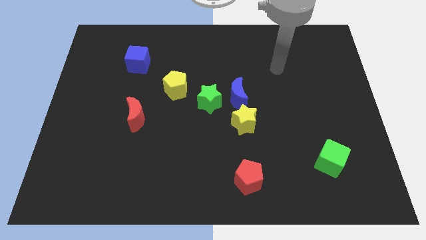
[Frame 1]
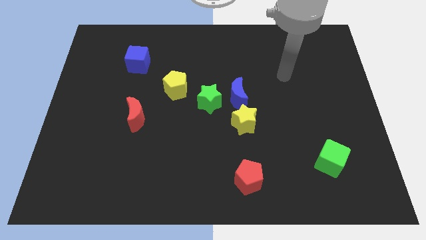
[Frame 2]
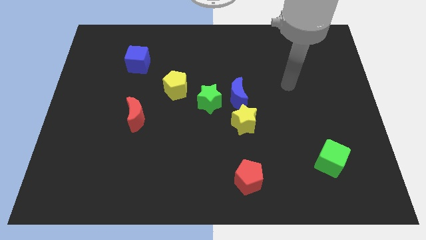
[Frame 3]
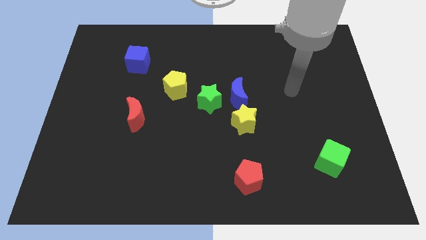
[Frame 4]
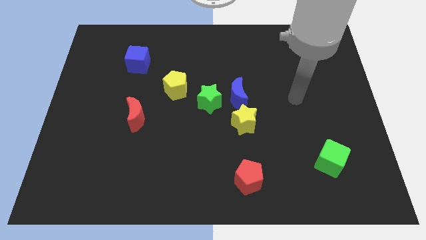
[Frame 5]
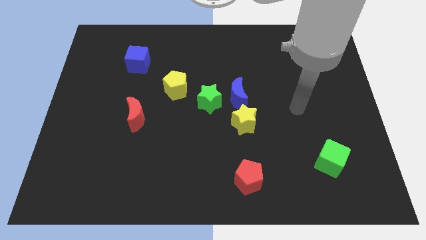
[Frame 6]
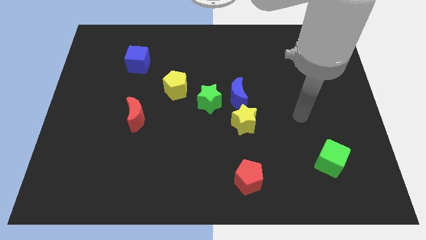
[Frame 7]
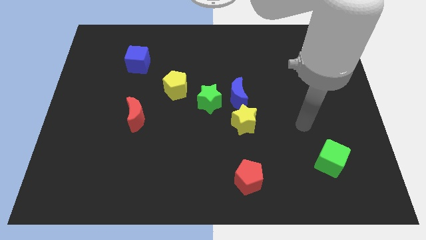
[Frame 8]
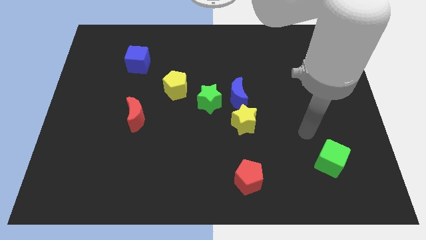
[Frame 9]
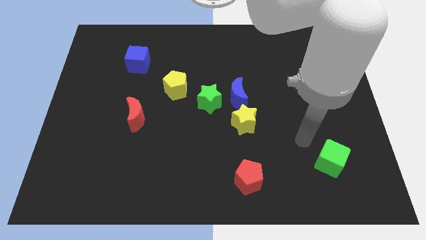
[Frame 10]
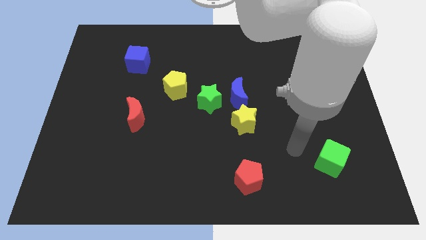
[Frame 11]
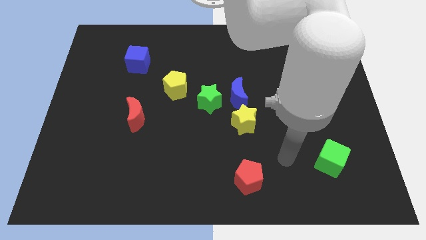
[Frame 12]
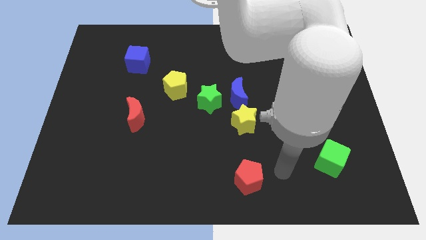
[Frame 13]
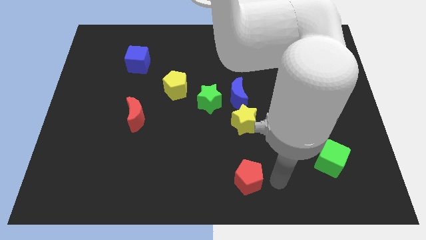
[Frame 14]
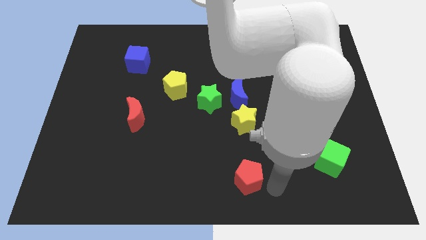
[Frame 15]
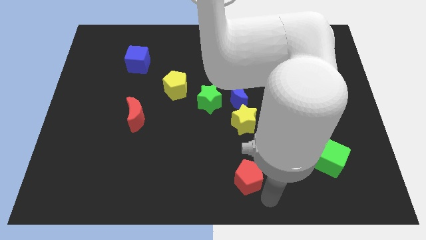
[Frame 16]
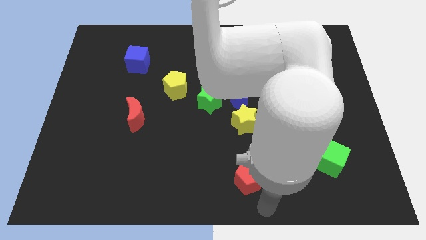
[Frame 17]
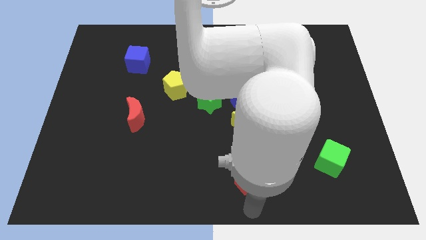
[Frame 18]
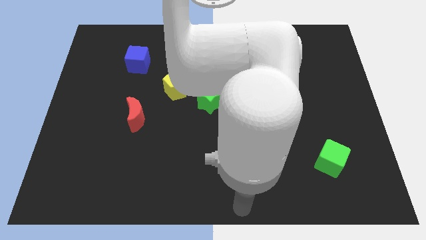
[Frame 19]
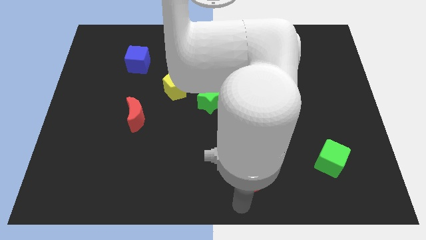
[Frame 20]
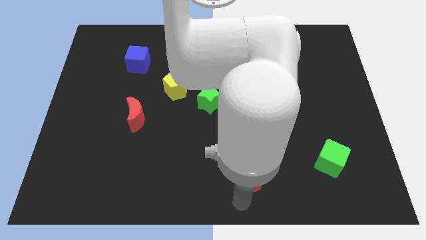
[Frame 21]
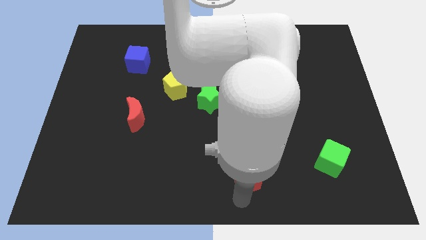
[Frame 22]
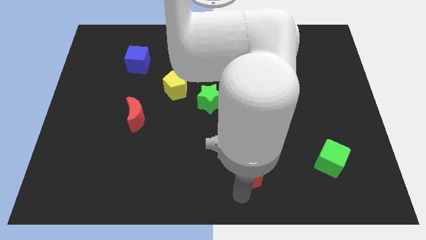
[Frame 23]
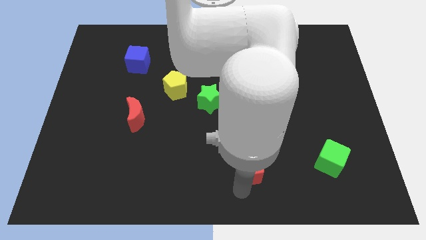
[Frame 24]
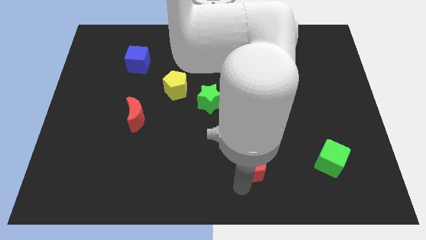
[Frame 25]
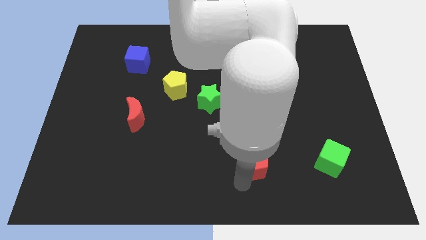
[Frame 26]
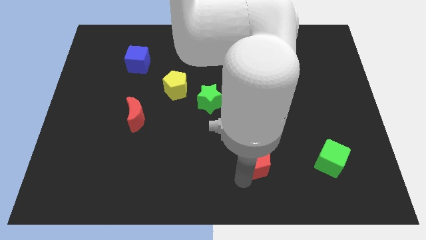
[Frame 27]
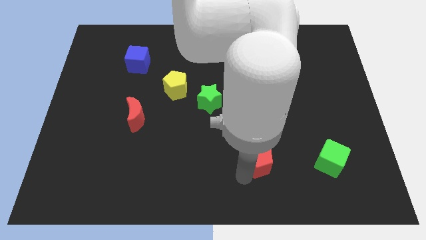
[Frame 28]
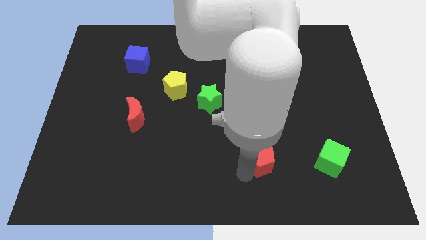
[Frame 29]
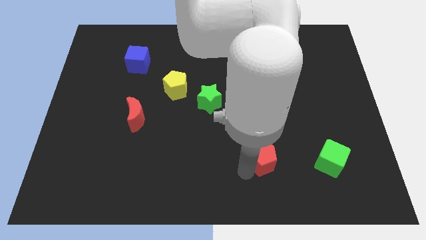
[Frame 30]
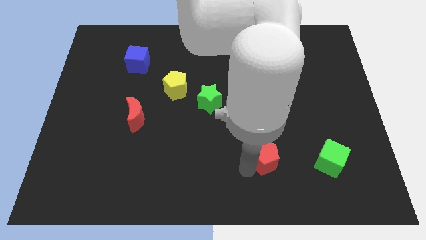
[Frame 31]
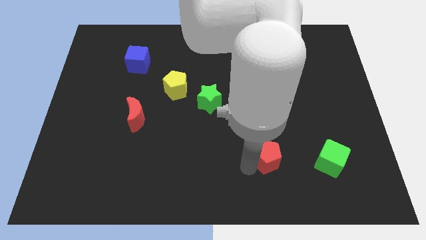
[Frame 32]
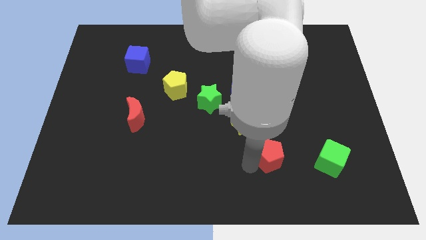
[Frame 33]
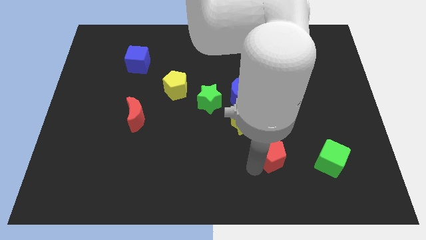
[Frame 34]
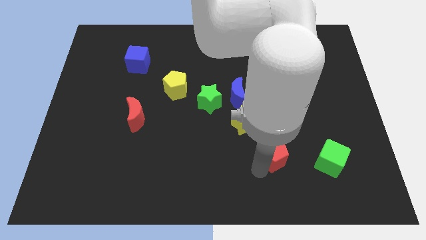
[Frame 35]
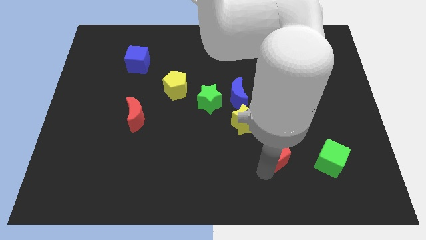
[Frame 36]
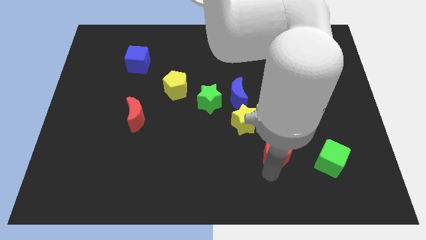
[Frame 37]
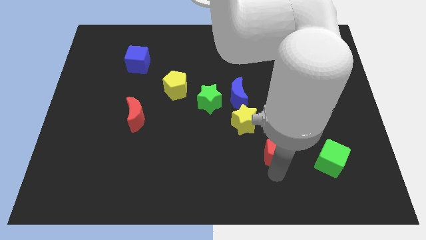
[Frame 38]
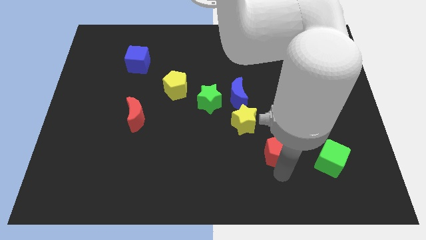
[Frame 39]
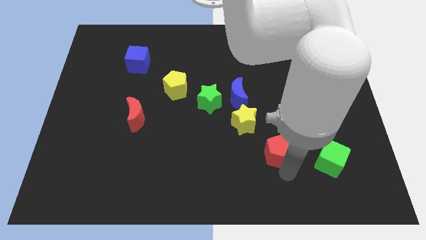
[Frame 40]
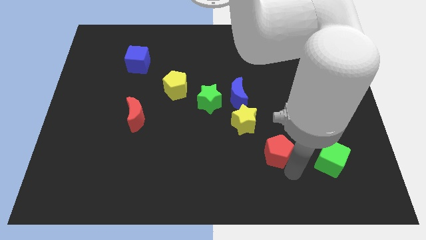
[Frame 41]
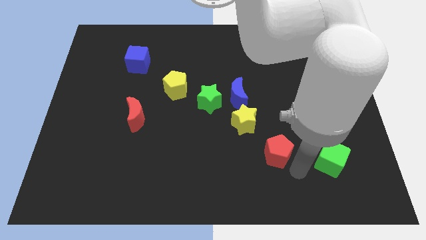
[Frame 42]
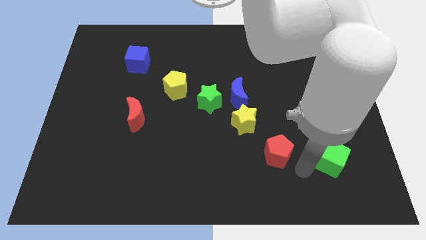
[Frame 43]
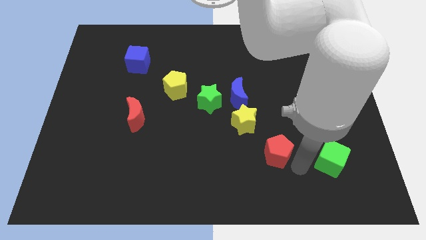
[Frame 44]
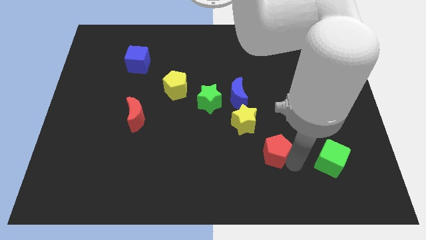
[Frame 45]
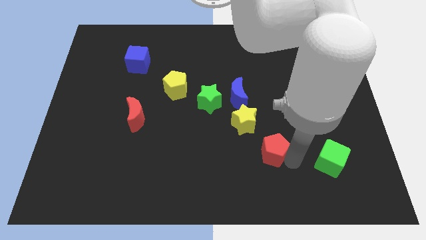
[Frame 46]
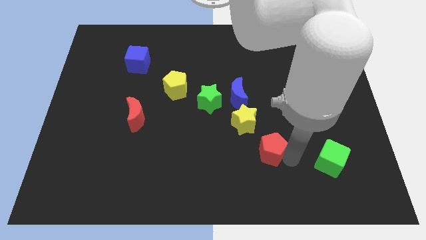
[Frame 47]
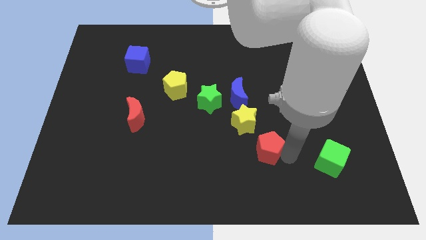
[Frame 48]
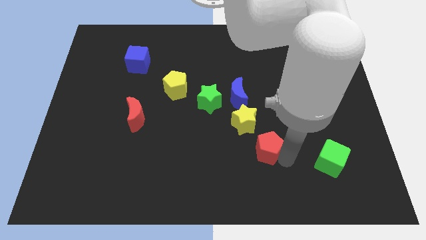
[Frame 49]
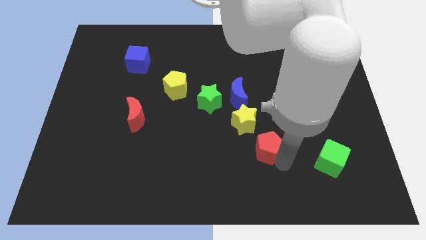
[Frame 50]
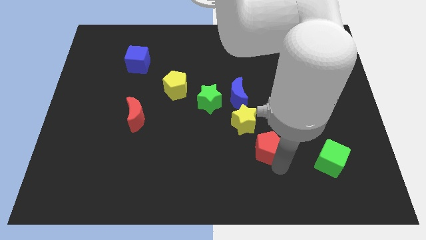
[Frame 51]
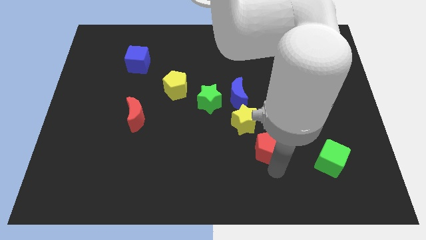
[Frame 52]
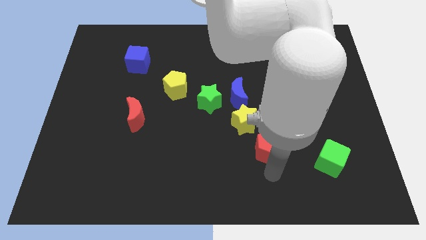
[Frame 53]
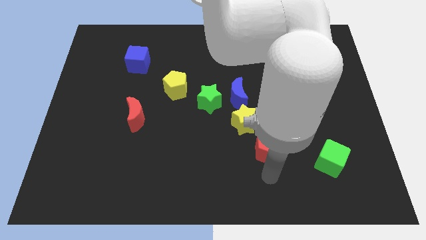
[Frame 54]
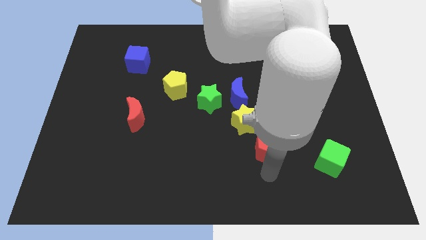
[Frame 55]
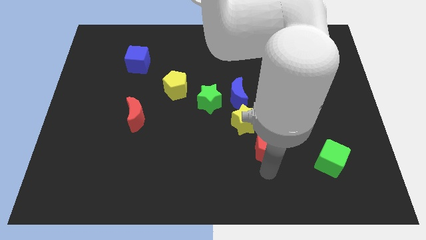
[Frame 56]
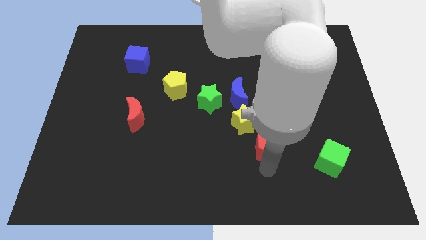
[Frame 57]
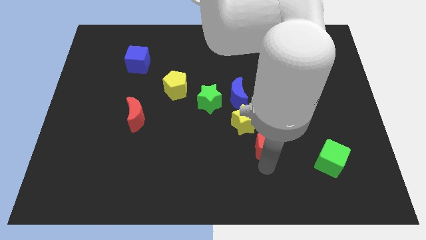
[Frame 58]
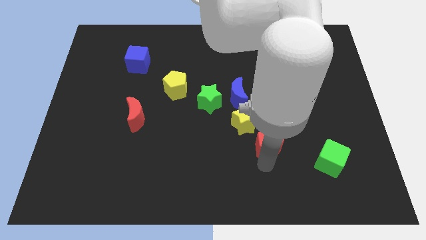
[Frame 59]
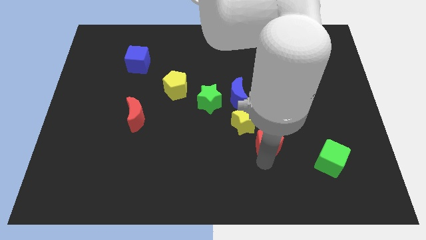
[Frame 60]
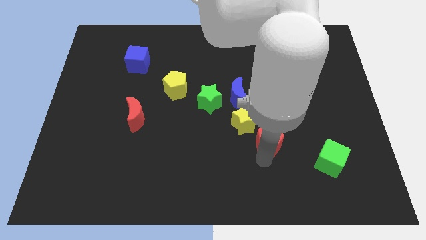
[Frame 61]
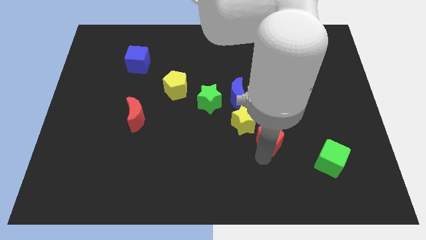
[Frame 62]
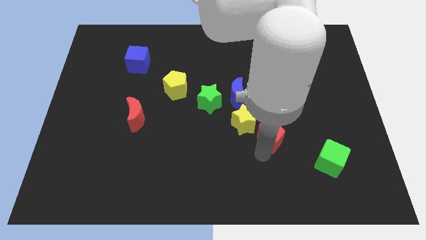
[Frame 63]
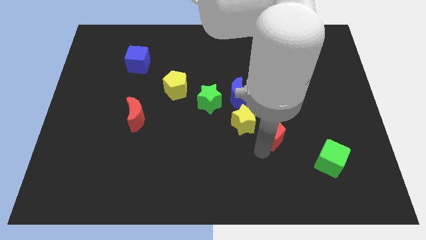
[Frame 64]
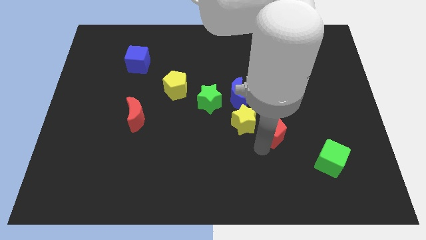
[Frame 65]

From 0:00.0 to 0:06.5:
push the red pentagon to the bottom right of the blue moon

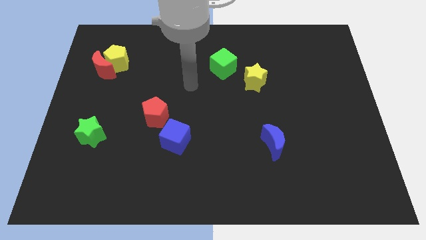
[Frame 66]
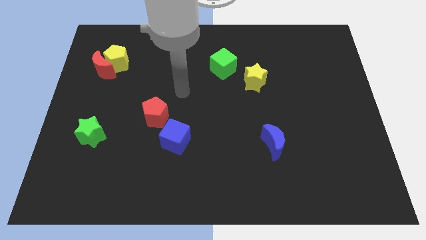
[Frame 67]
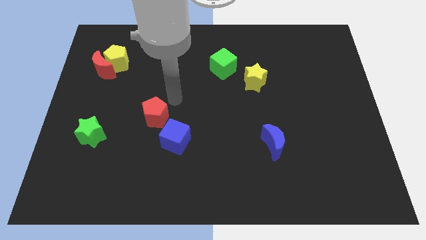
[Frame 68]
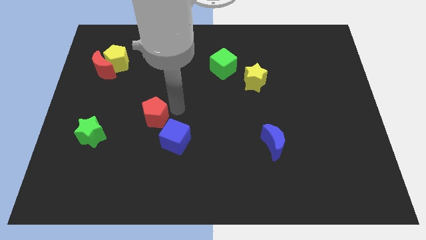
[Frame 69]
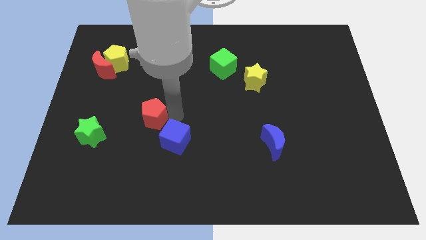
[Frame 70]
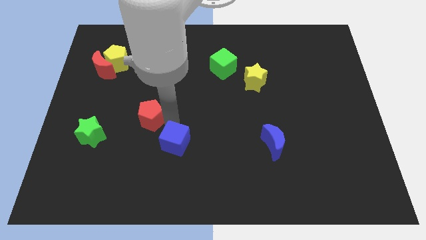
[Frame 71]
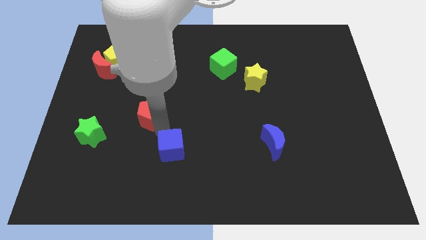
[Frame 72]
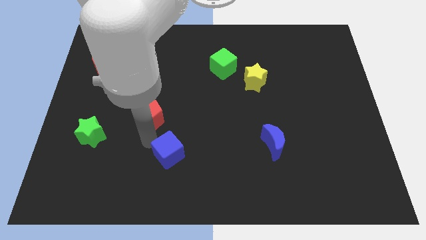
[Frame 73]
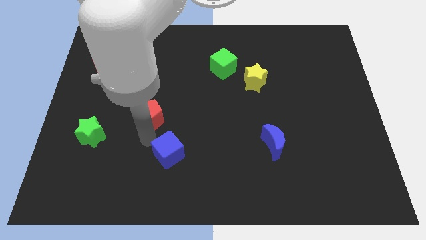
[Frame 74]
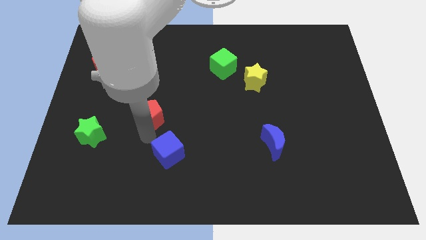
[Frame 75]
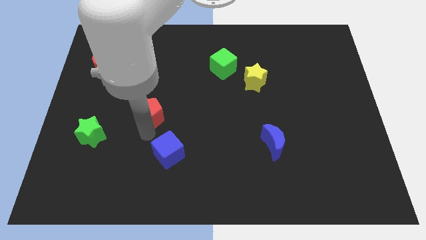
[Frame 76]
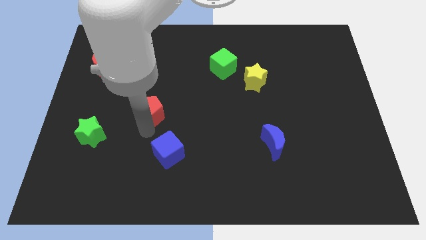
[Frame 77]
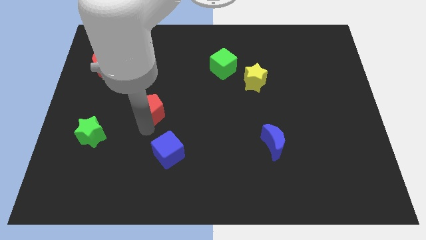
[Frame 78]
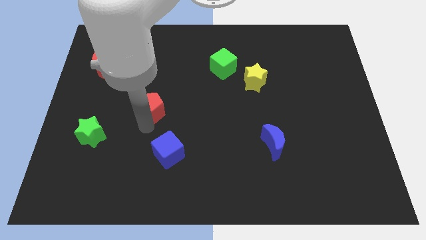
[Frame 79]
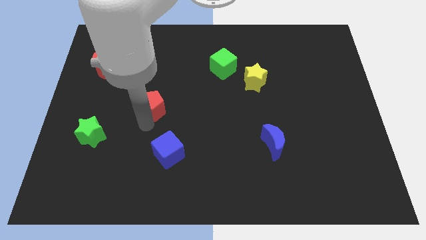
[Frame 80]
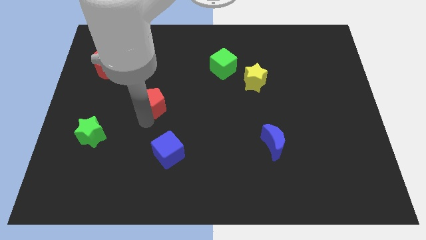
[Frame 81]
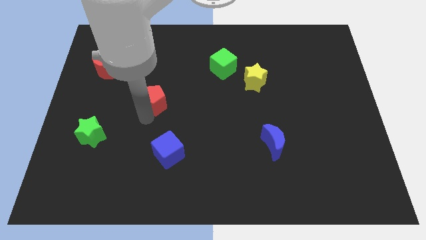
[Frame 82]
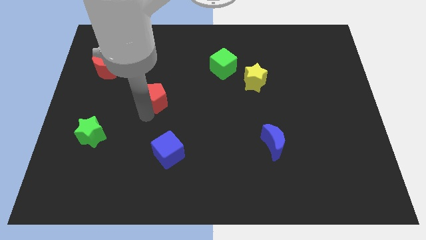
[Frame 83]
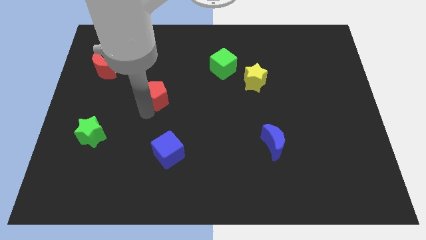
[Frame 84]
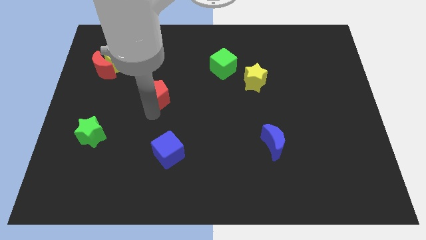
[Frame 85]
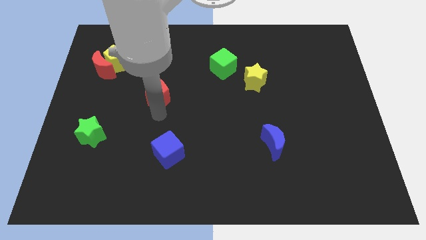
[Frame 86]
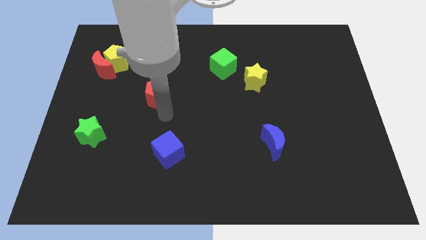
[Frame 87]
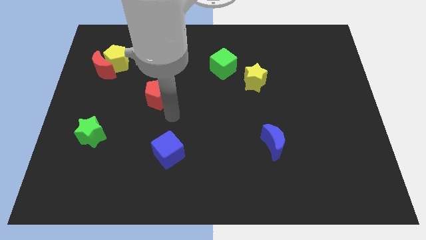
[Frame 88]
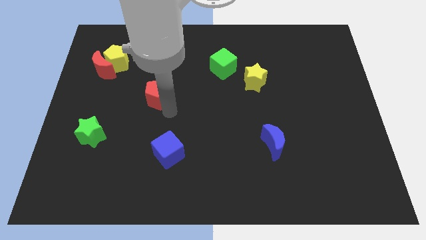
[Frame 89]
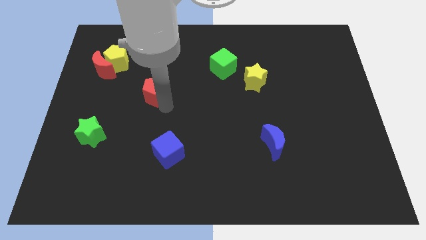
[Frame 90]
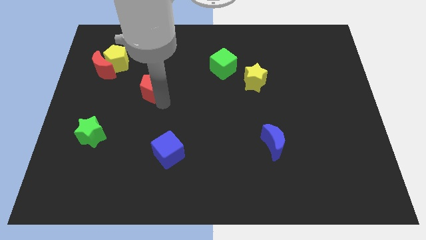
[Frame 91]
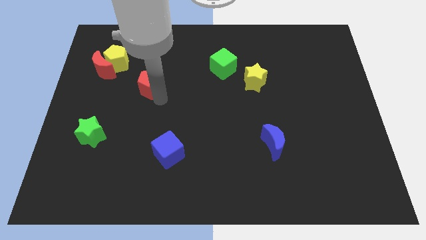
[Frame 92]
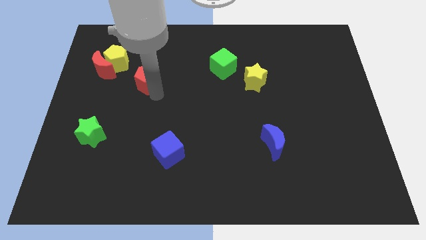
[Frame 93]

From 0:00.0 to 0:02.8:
put the red pentagon just right of the red moon
